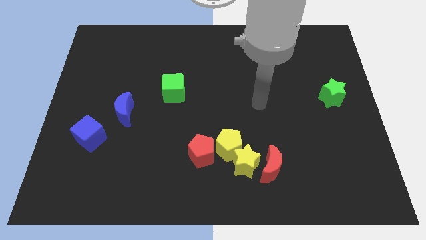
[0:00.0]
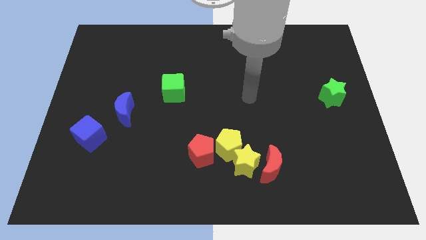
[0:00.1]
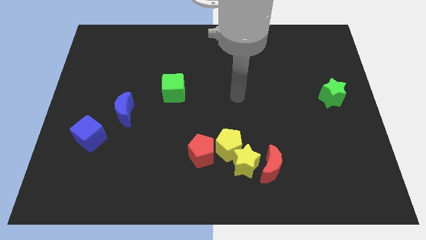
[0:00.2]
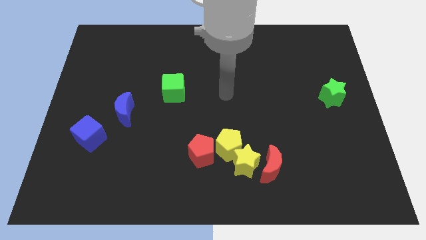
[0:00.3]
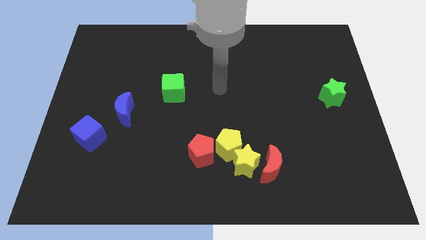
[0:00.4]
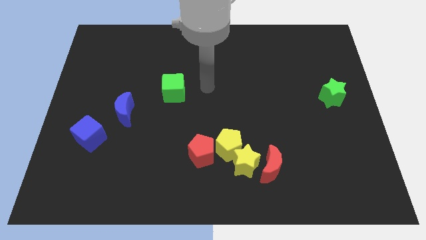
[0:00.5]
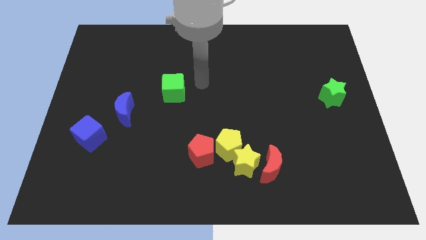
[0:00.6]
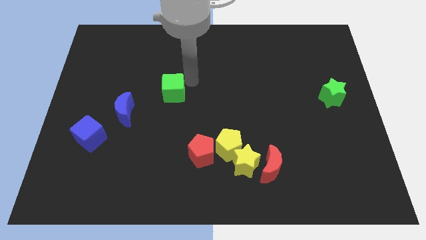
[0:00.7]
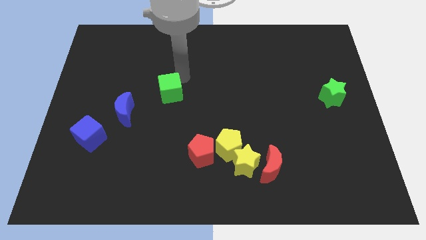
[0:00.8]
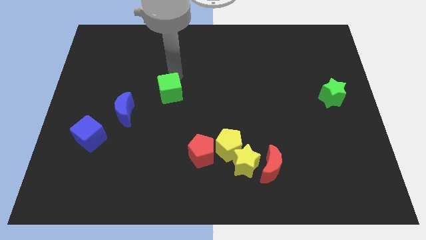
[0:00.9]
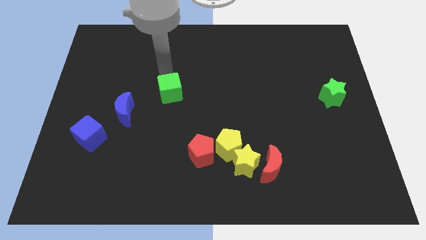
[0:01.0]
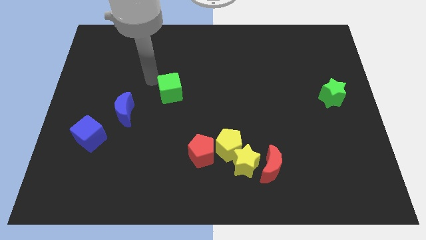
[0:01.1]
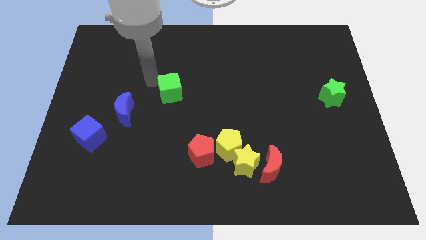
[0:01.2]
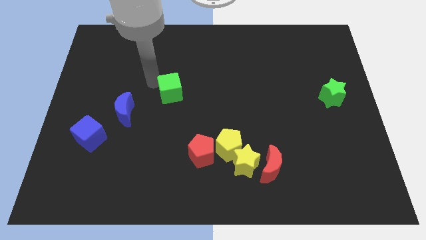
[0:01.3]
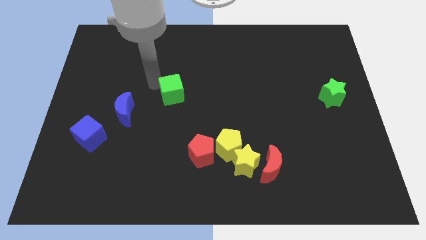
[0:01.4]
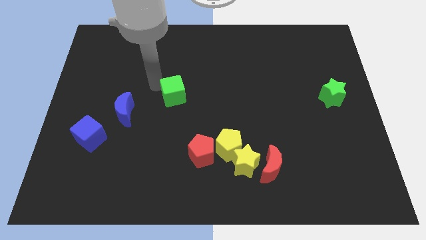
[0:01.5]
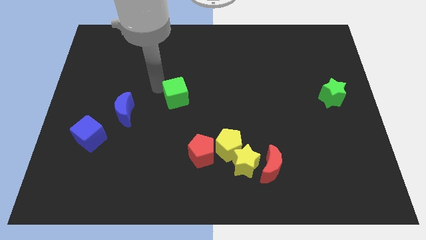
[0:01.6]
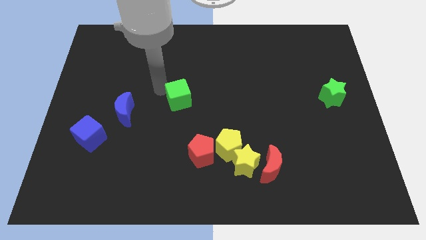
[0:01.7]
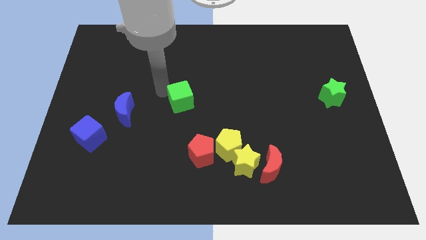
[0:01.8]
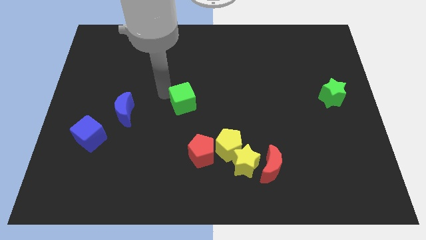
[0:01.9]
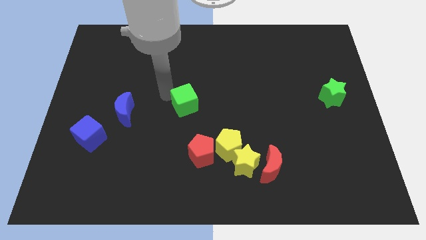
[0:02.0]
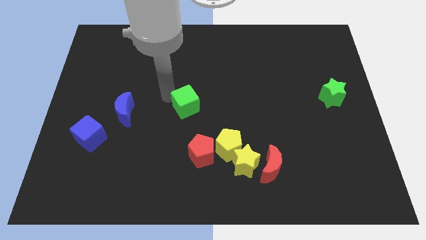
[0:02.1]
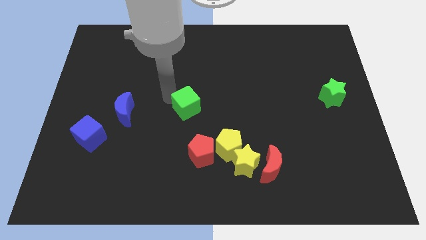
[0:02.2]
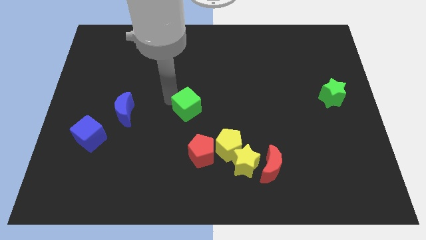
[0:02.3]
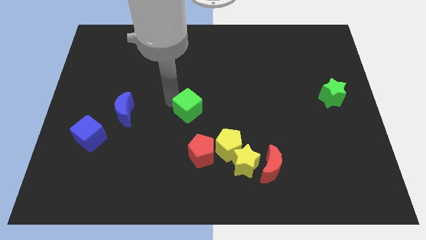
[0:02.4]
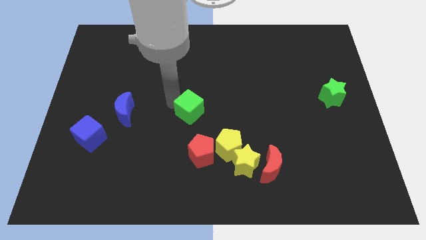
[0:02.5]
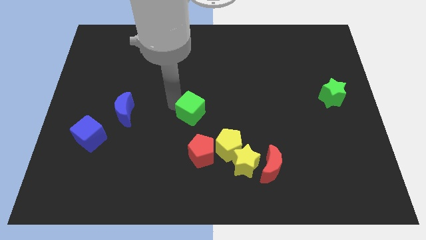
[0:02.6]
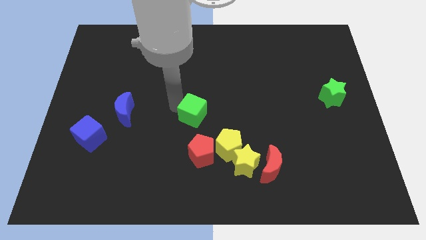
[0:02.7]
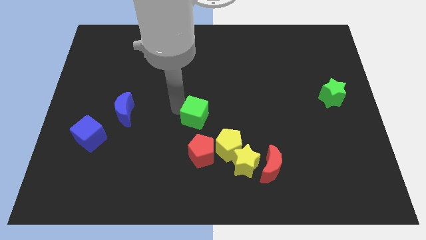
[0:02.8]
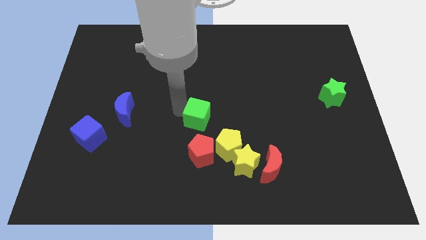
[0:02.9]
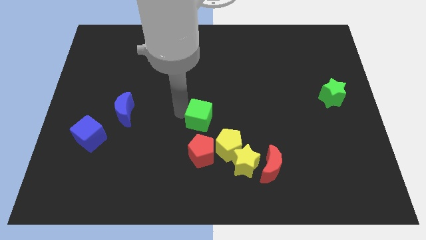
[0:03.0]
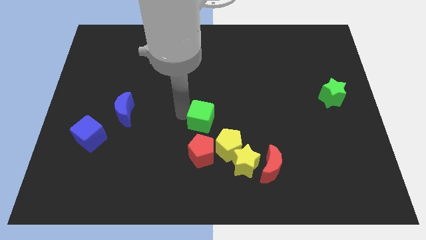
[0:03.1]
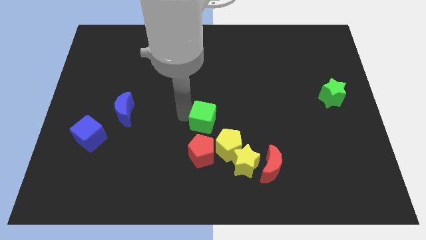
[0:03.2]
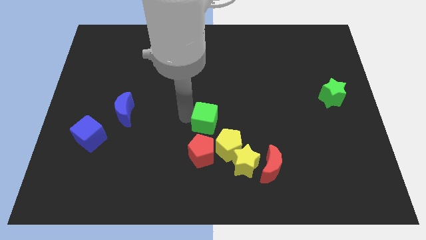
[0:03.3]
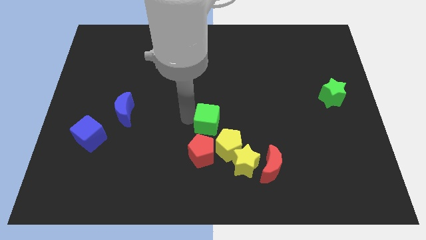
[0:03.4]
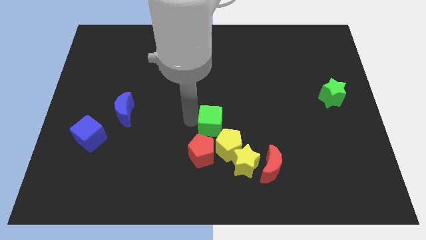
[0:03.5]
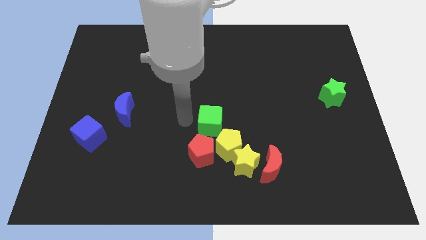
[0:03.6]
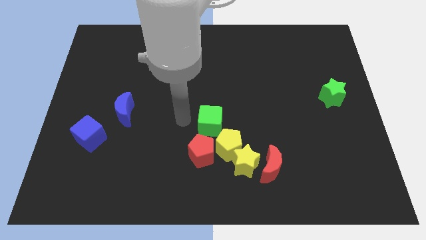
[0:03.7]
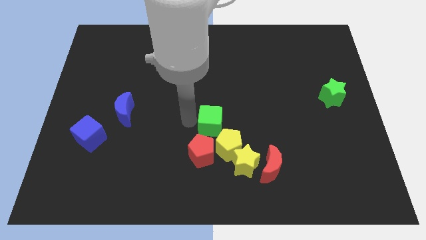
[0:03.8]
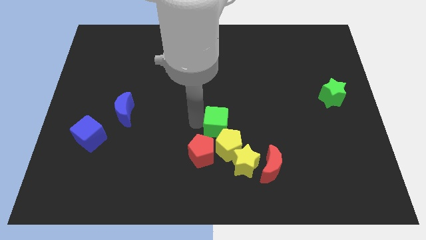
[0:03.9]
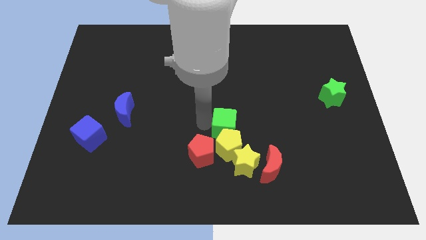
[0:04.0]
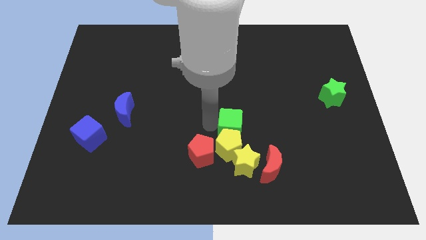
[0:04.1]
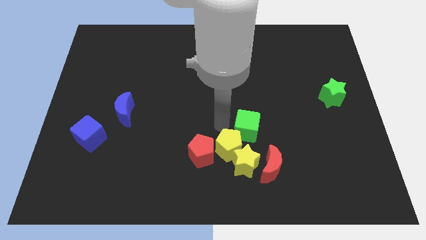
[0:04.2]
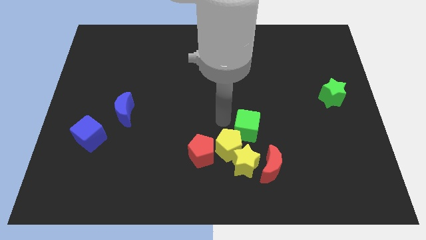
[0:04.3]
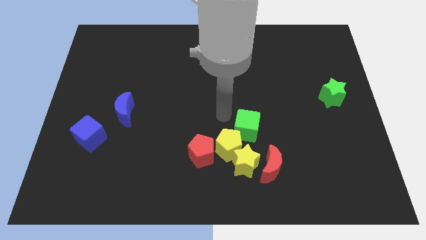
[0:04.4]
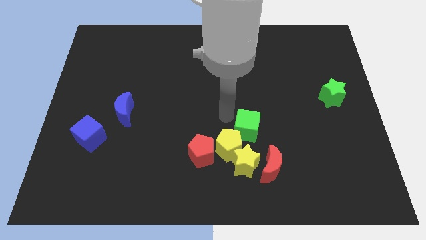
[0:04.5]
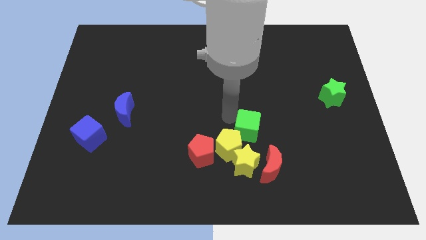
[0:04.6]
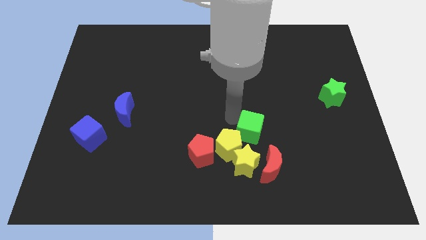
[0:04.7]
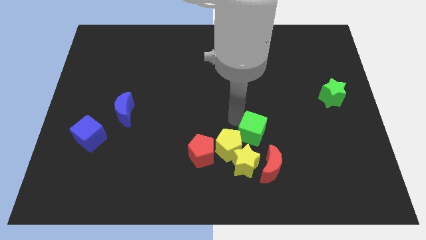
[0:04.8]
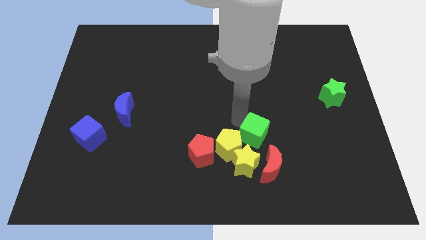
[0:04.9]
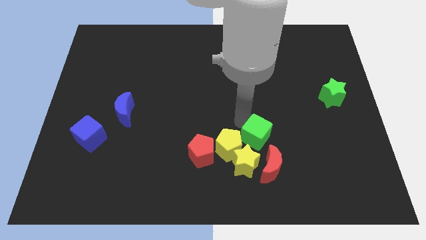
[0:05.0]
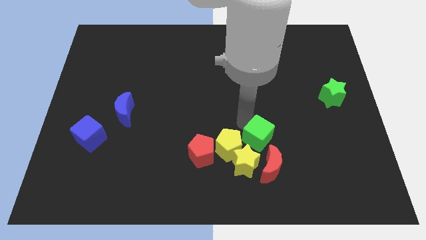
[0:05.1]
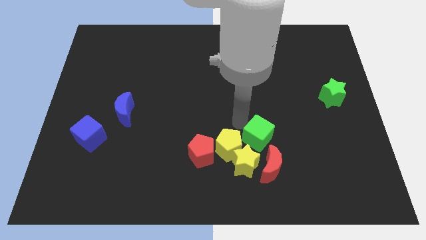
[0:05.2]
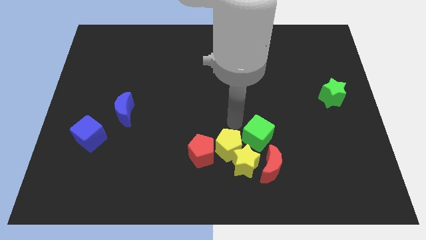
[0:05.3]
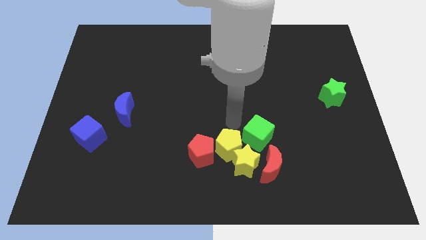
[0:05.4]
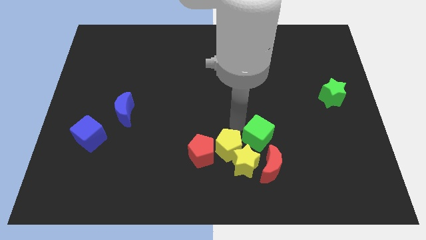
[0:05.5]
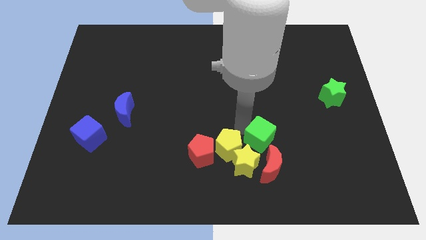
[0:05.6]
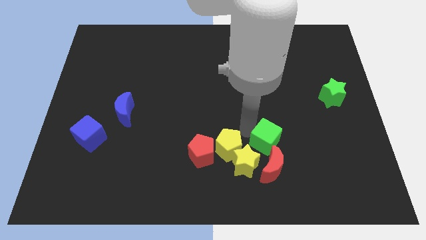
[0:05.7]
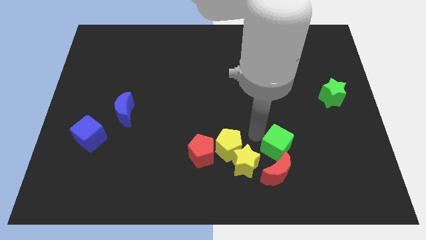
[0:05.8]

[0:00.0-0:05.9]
slide the green cube right of the yellow star

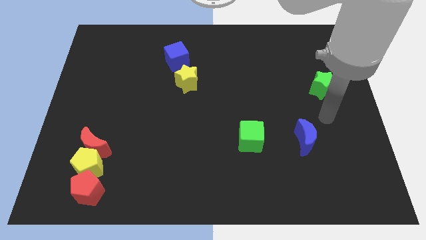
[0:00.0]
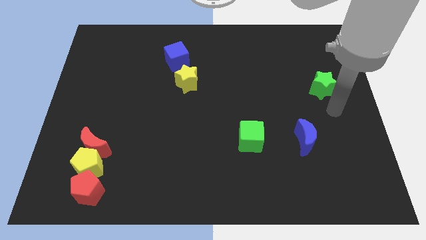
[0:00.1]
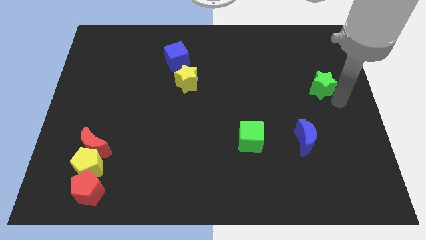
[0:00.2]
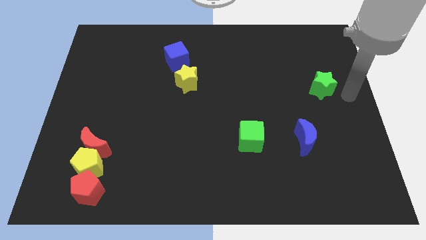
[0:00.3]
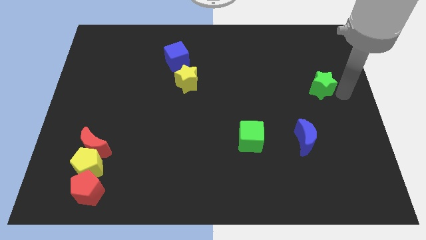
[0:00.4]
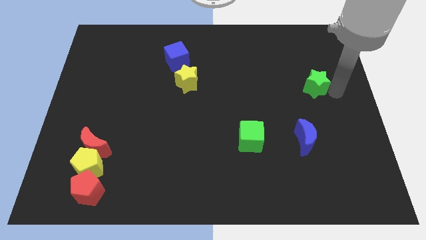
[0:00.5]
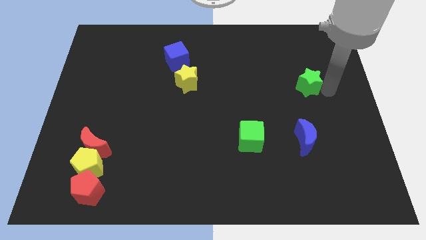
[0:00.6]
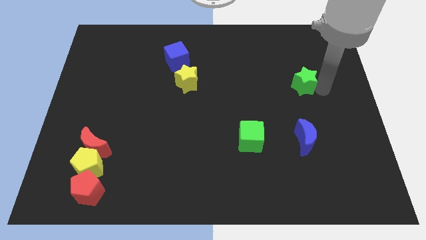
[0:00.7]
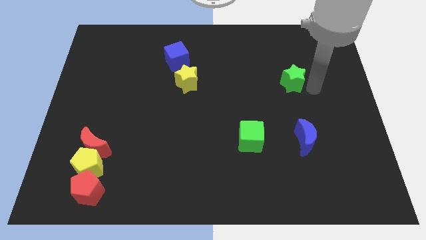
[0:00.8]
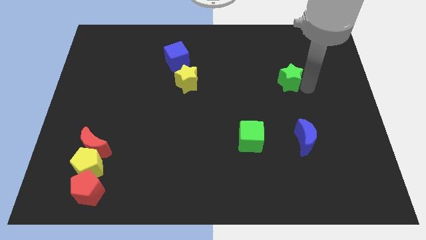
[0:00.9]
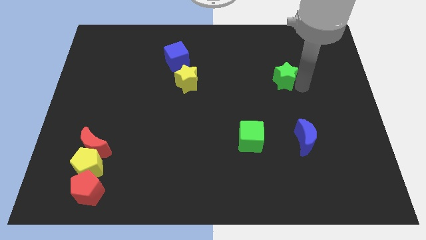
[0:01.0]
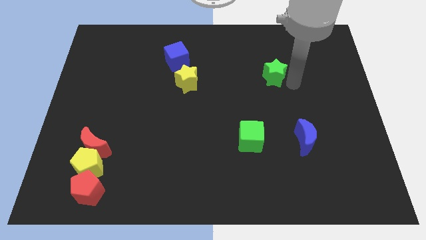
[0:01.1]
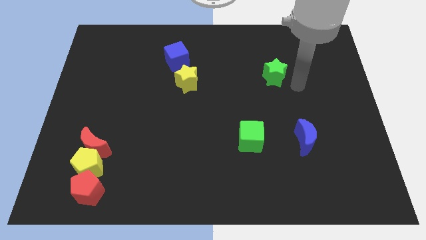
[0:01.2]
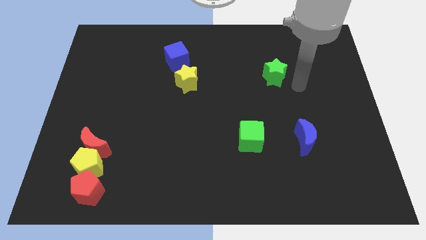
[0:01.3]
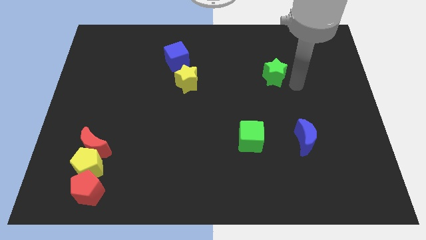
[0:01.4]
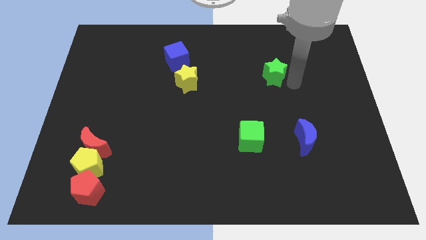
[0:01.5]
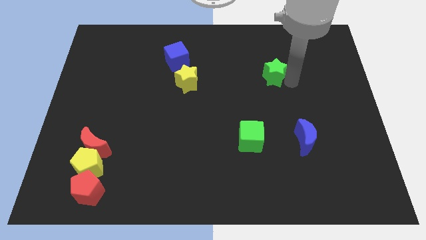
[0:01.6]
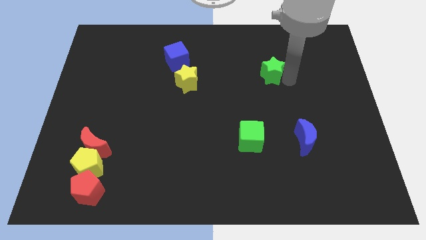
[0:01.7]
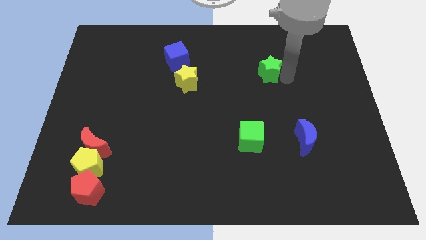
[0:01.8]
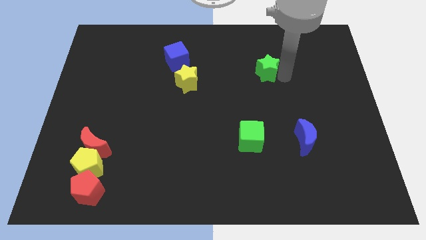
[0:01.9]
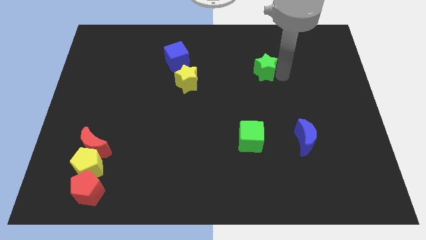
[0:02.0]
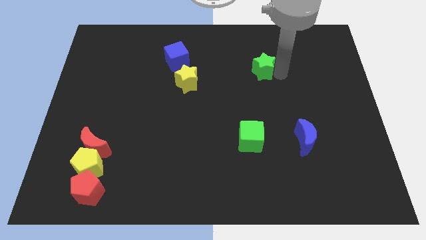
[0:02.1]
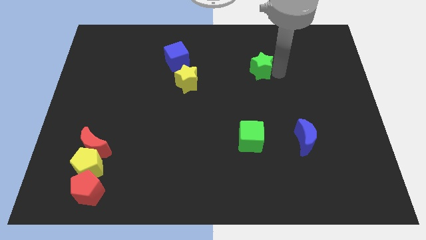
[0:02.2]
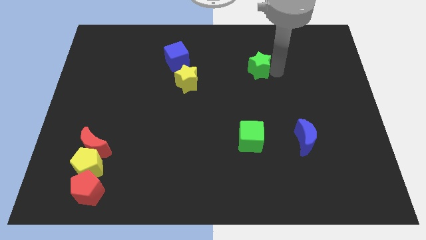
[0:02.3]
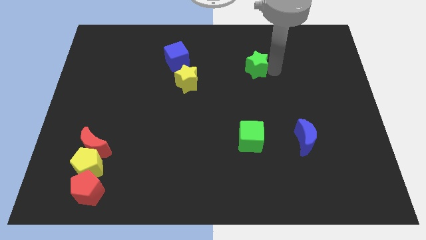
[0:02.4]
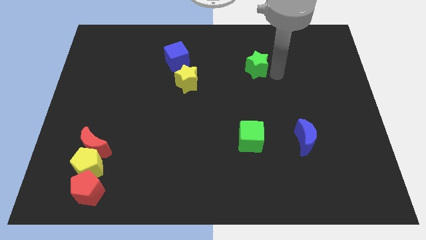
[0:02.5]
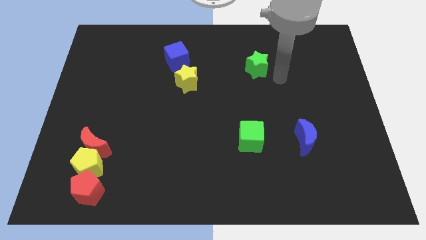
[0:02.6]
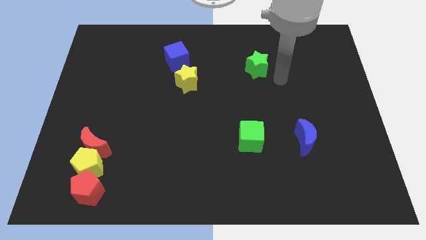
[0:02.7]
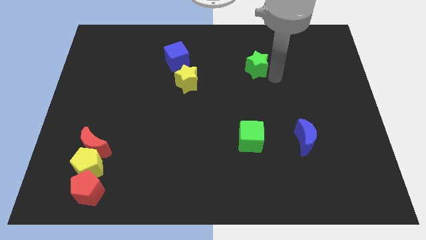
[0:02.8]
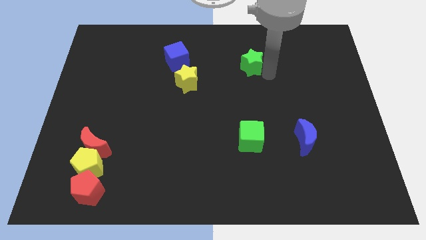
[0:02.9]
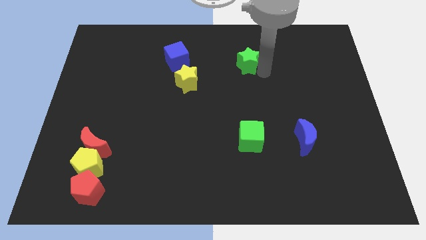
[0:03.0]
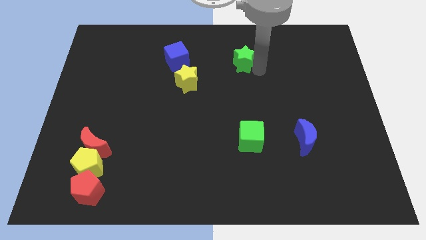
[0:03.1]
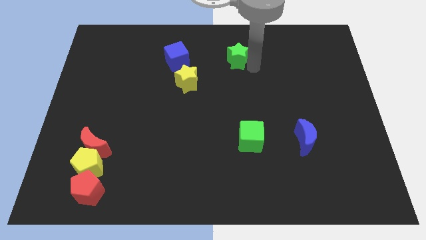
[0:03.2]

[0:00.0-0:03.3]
put the green star to the right of the blue cube
